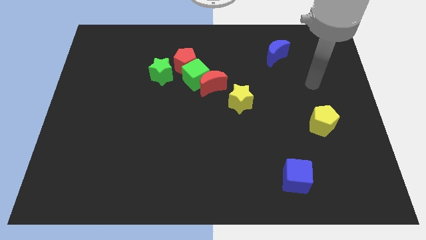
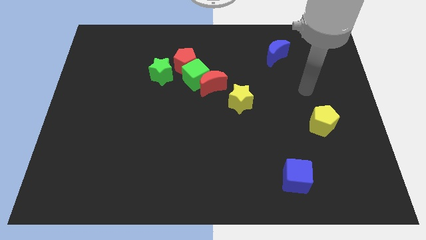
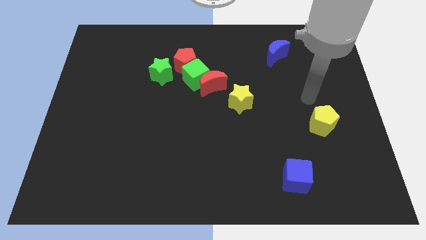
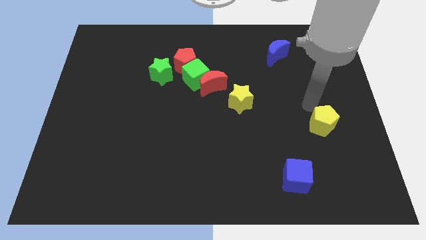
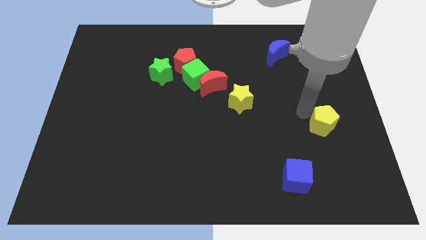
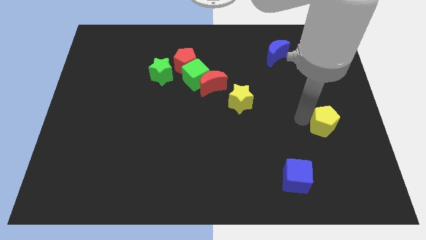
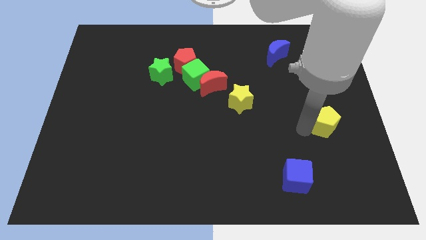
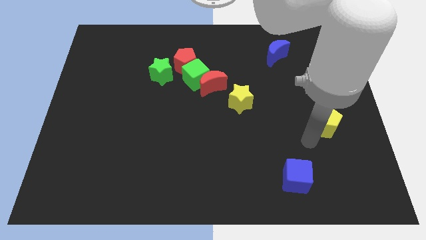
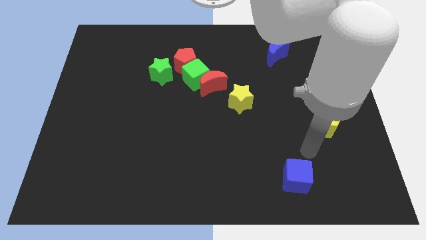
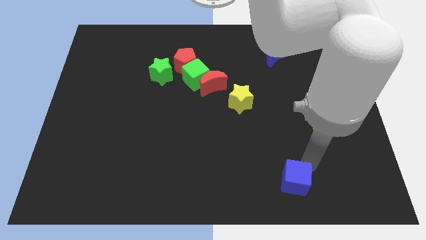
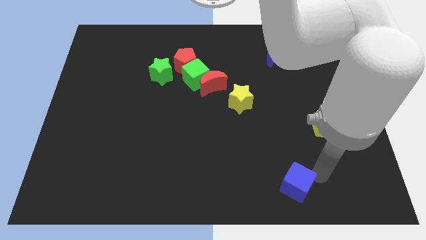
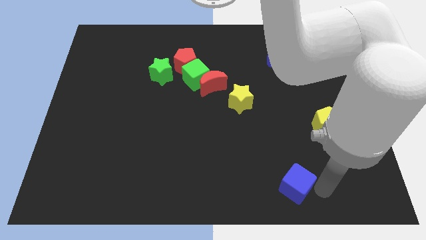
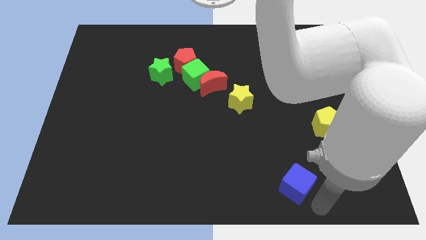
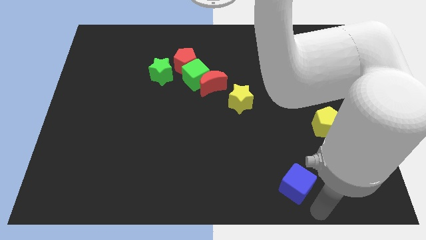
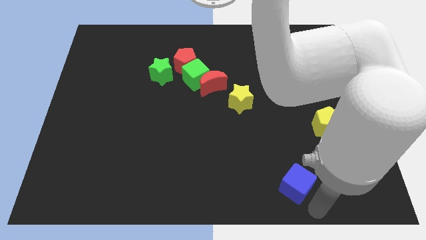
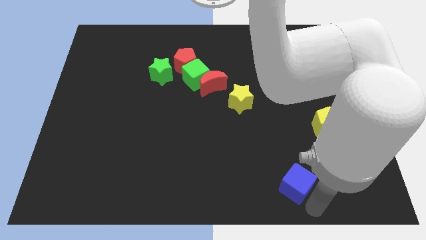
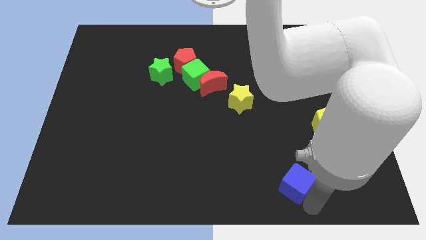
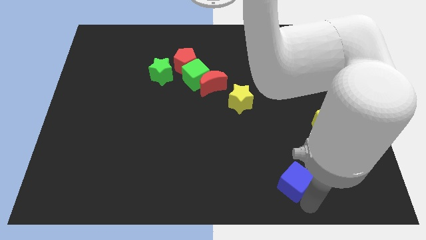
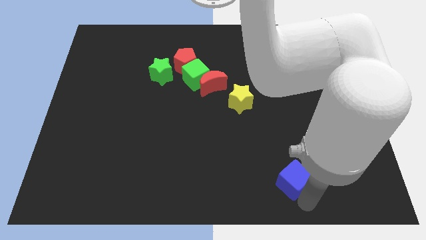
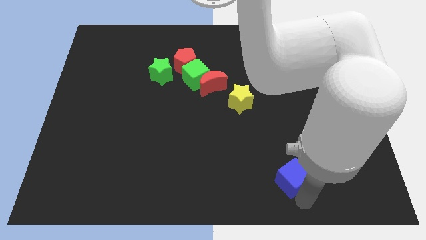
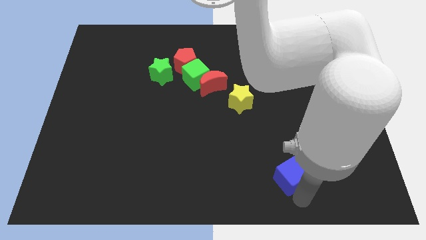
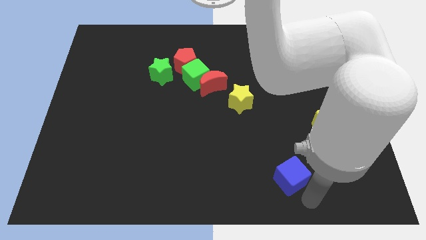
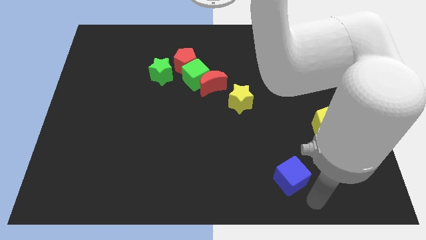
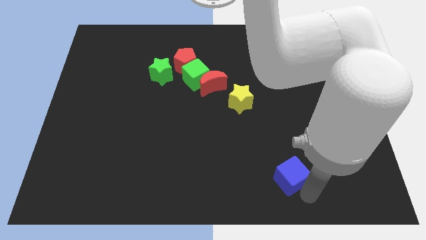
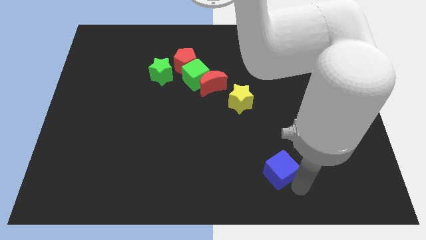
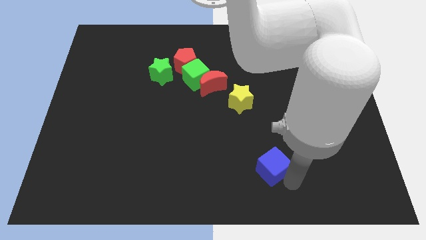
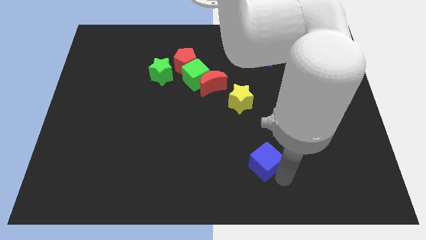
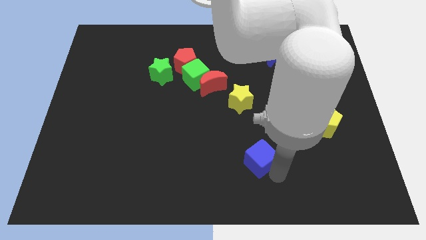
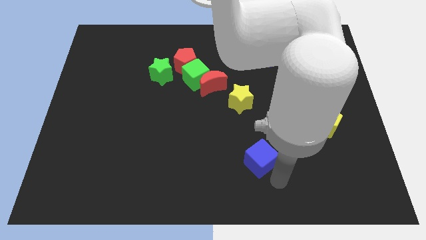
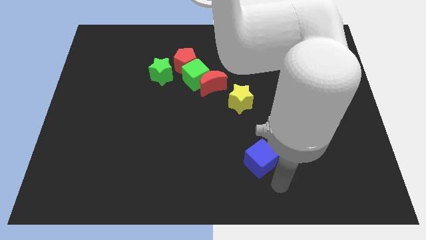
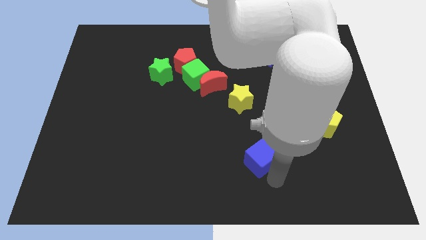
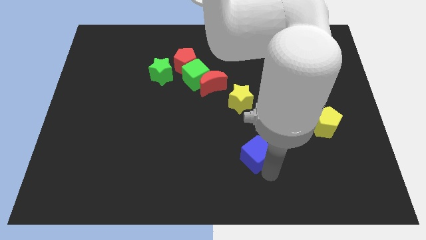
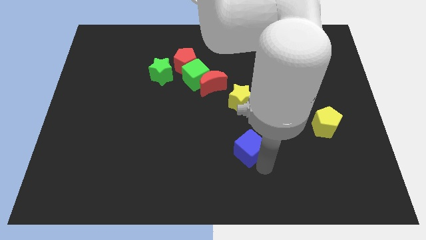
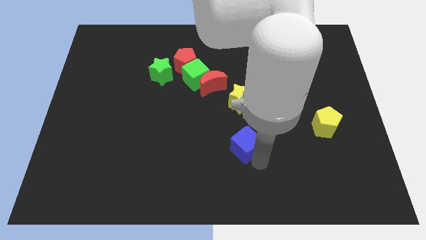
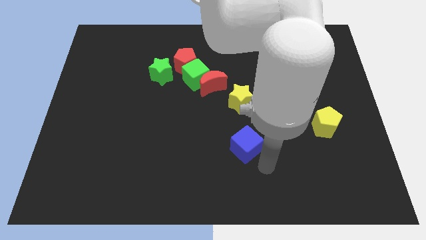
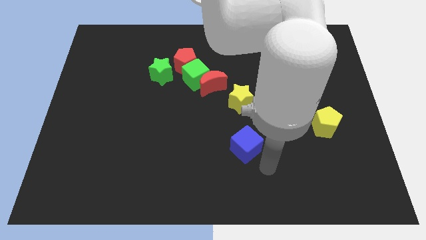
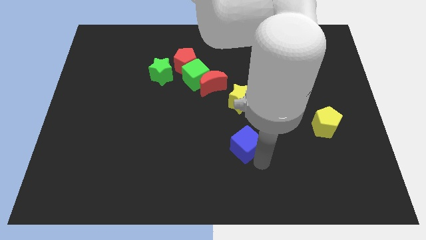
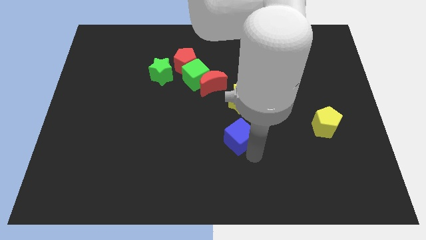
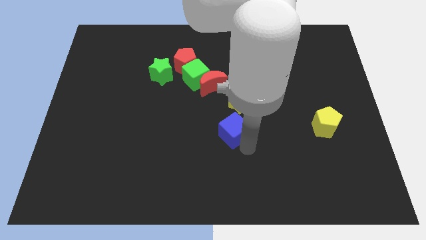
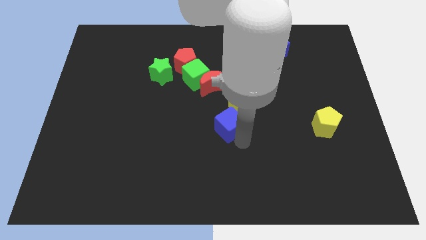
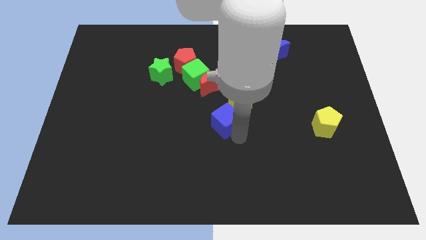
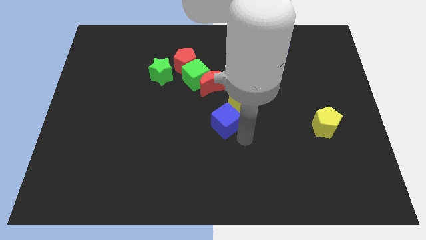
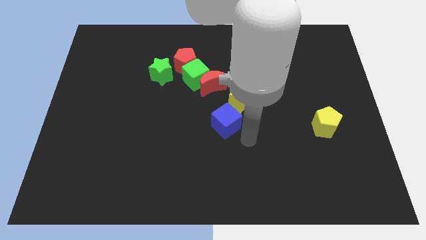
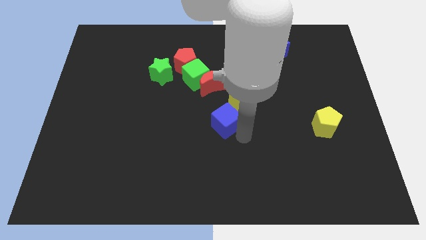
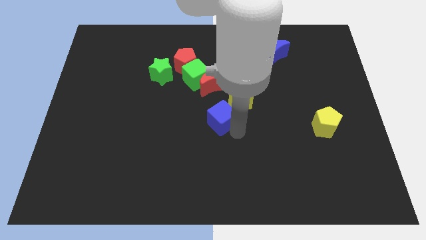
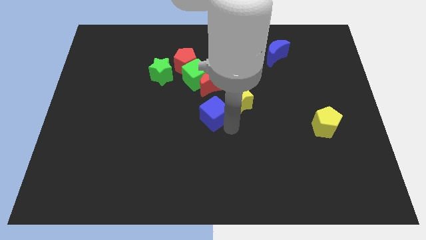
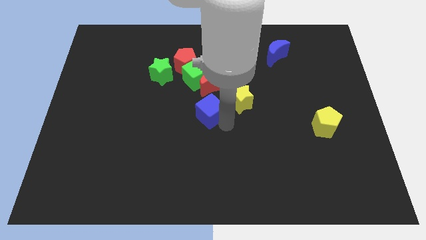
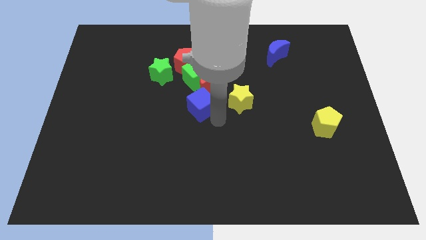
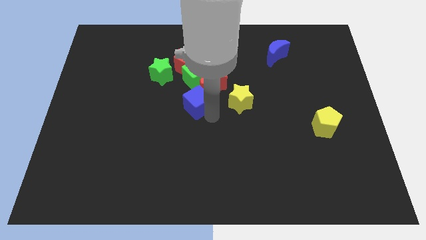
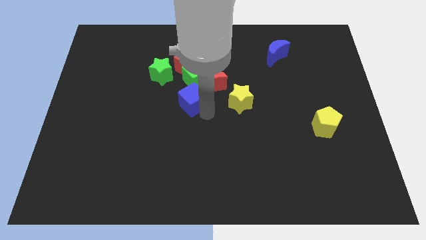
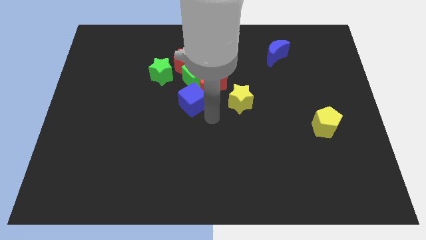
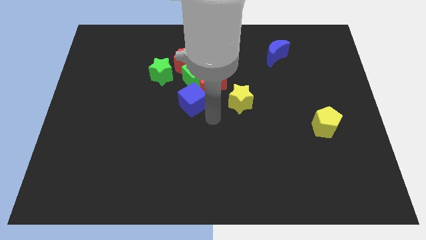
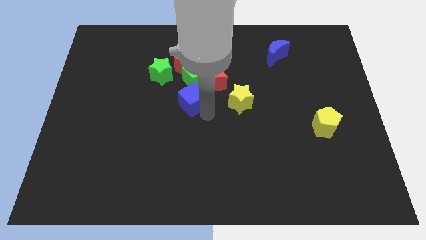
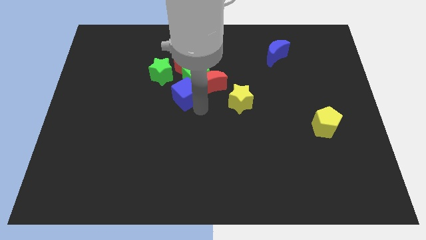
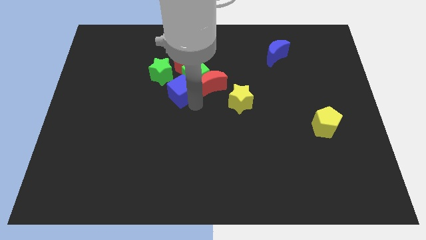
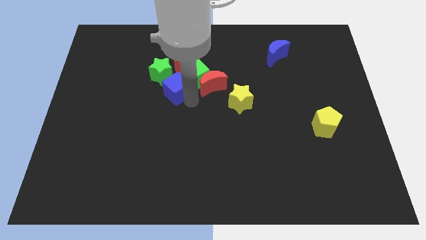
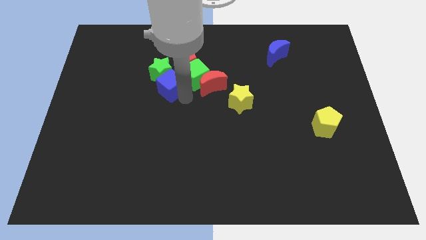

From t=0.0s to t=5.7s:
slide the blue cube to the green star

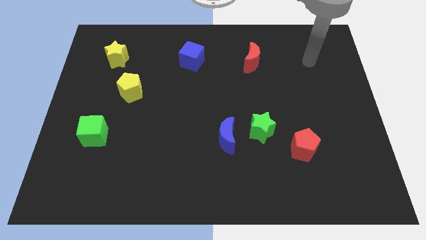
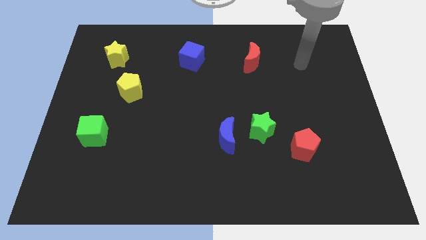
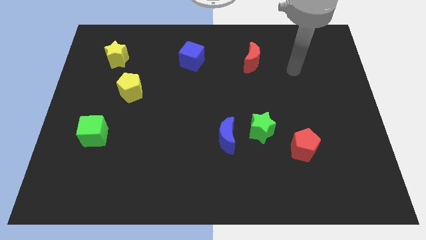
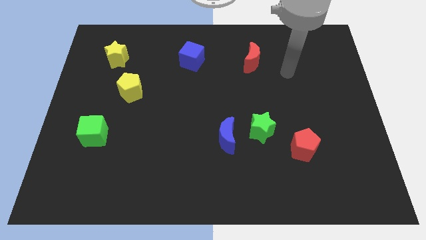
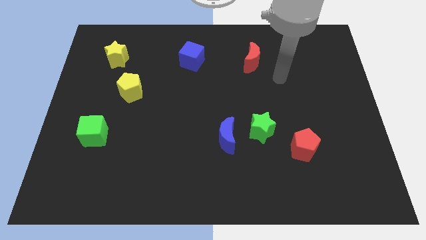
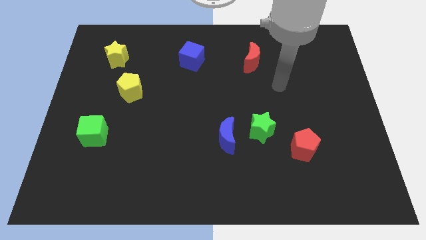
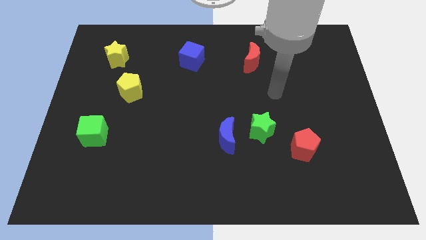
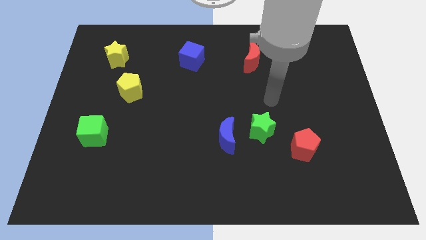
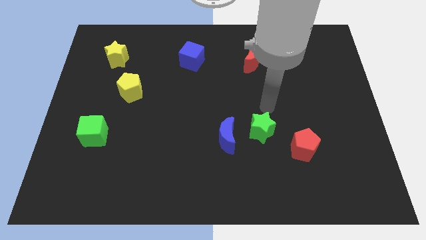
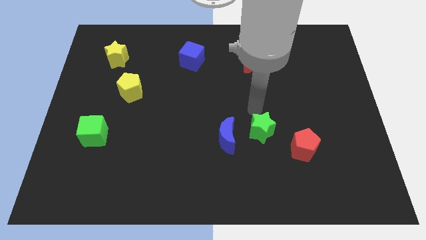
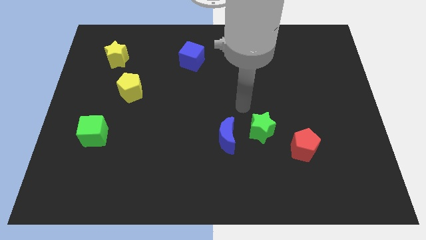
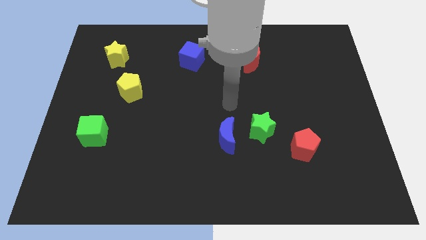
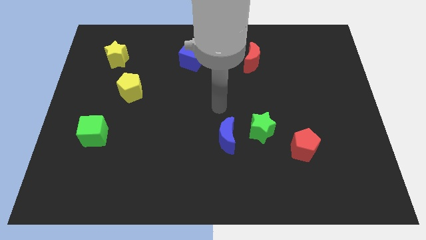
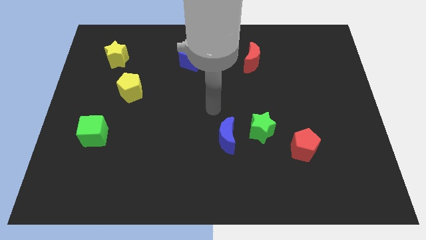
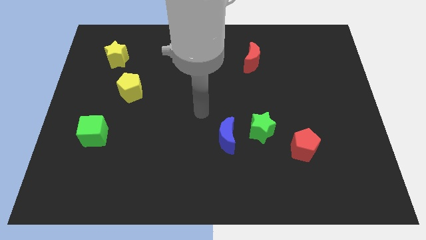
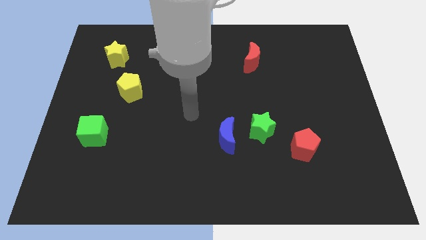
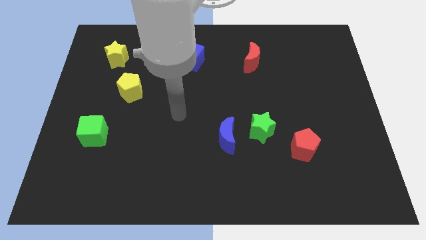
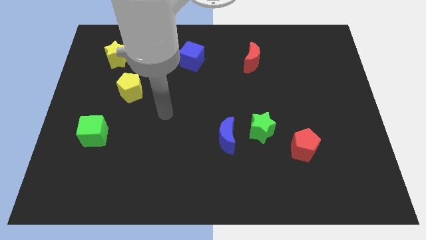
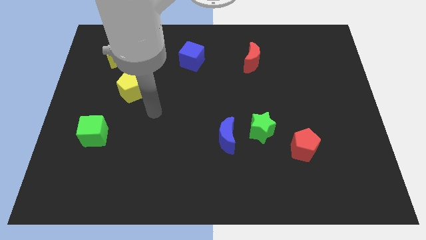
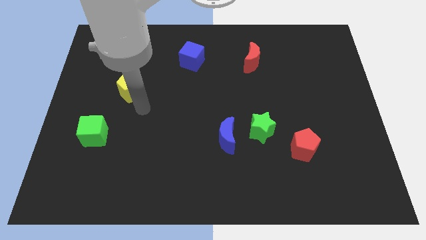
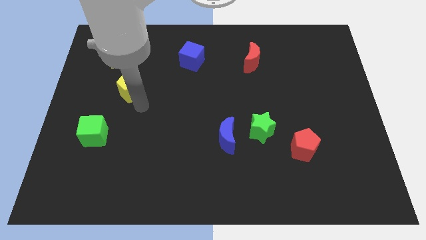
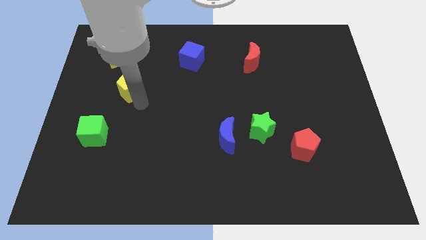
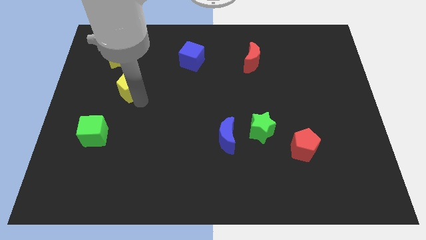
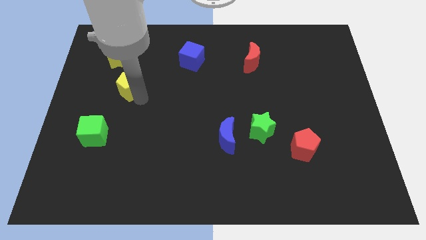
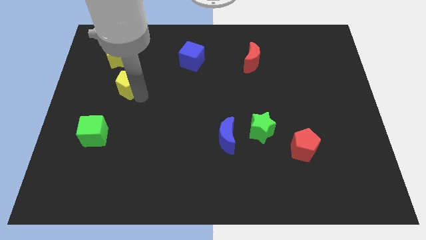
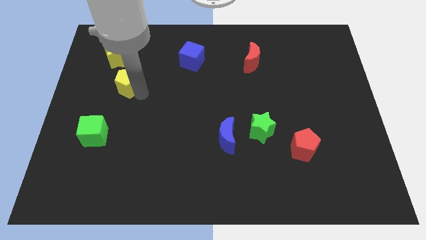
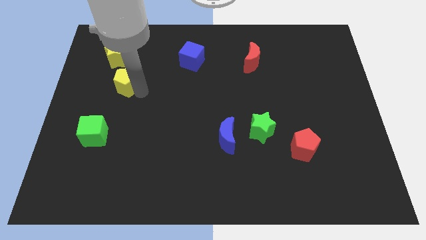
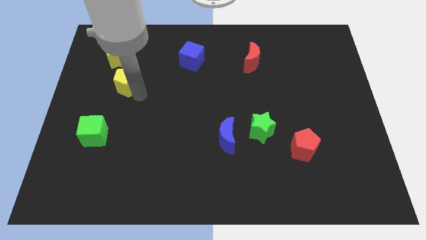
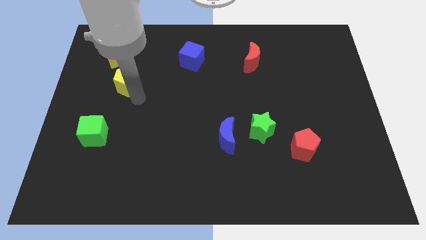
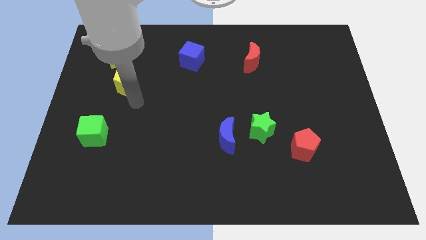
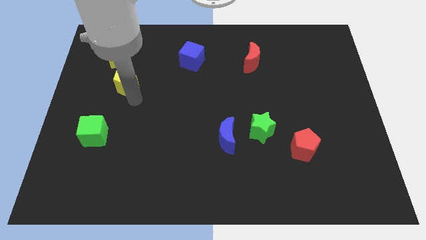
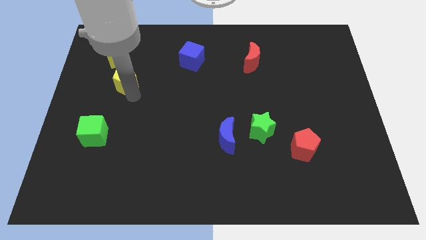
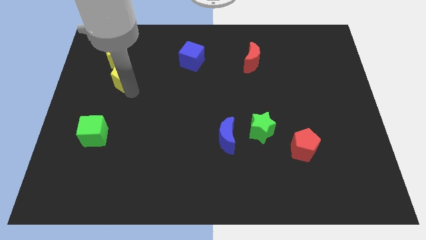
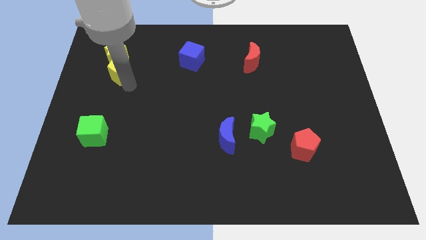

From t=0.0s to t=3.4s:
slide the yellow pentagon next to the yellow star
